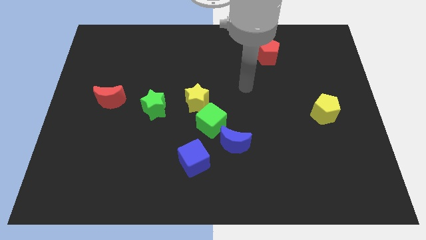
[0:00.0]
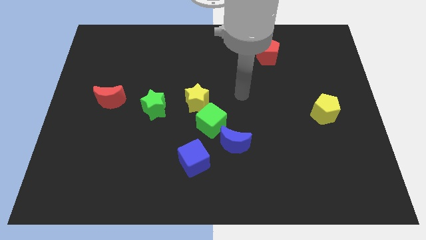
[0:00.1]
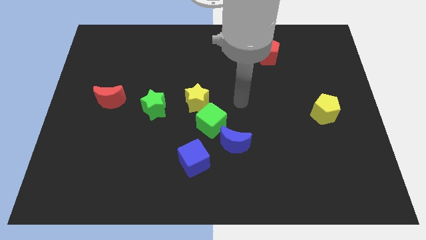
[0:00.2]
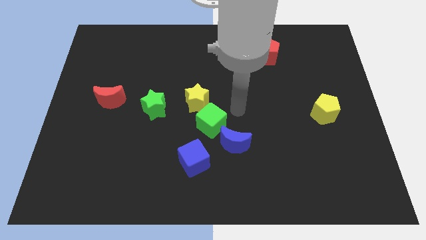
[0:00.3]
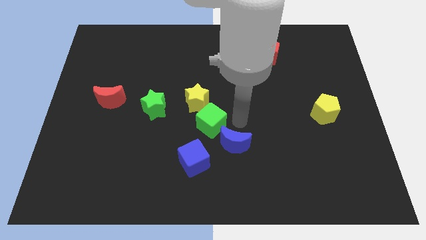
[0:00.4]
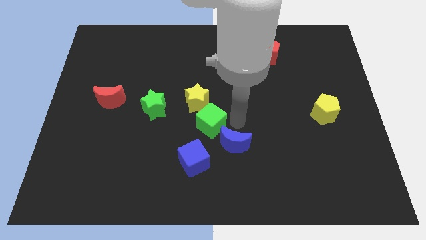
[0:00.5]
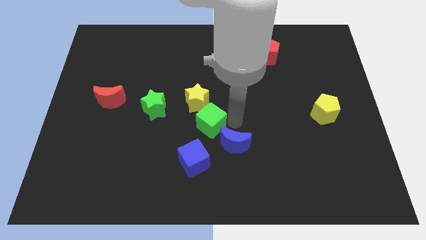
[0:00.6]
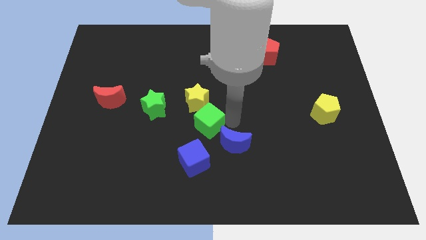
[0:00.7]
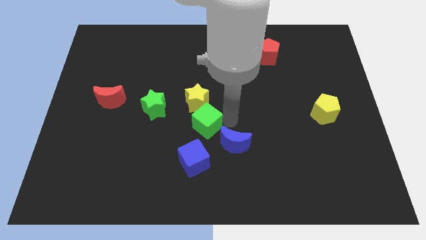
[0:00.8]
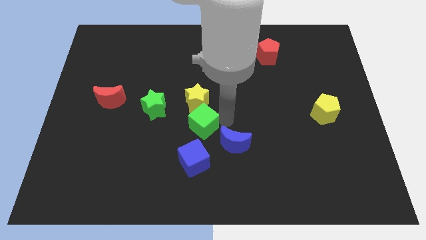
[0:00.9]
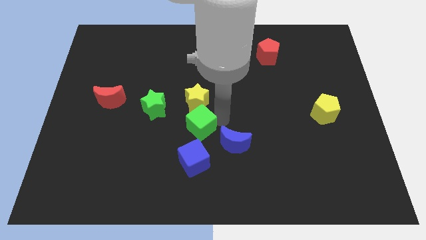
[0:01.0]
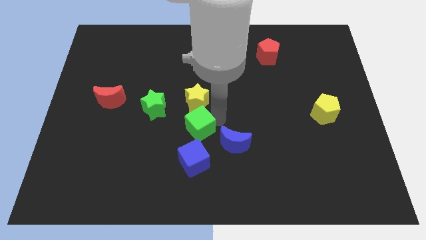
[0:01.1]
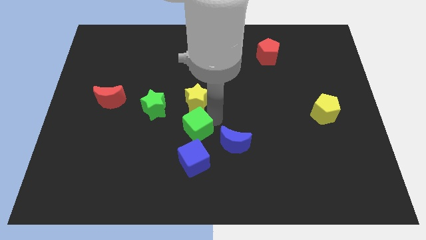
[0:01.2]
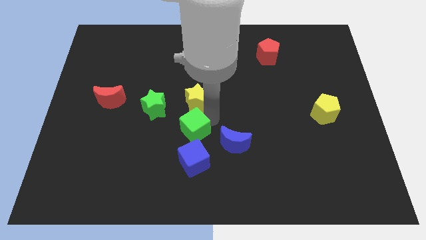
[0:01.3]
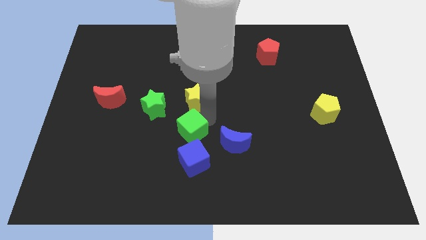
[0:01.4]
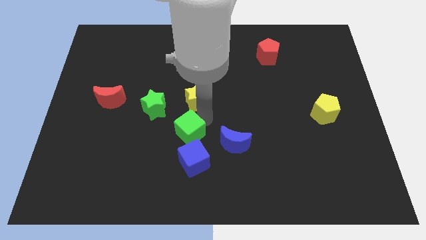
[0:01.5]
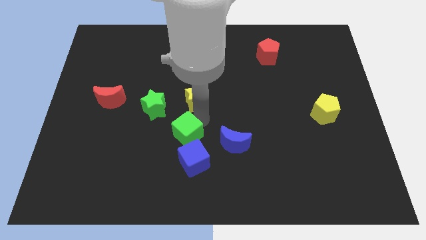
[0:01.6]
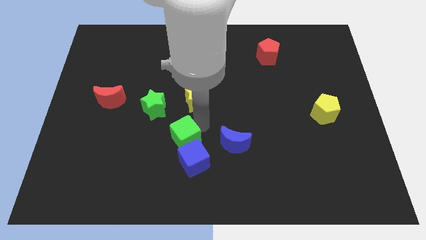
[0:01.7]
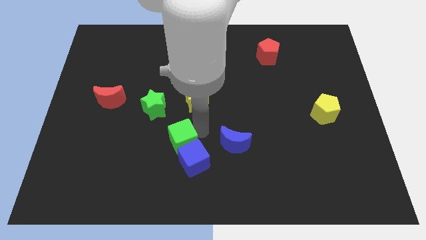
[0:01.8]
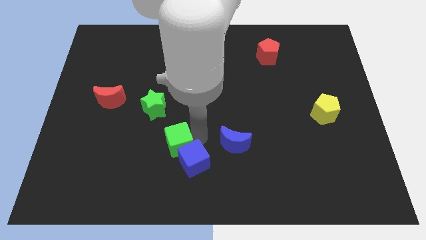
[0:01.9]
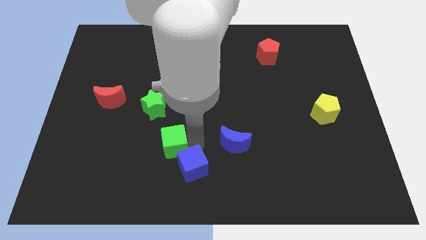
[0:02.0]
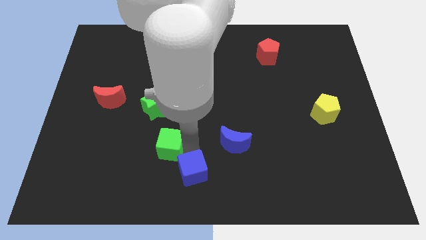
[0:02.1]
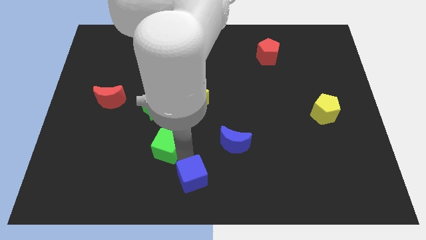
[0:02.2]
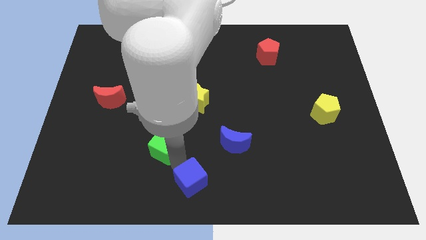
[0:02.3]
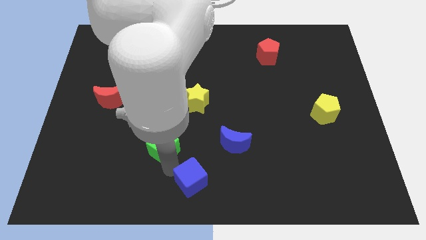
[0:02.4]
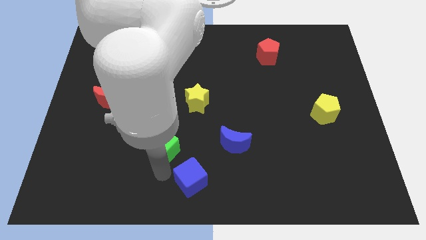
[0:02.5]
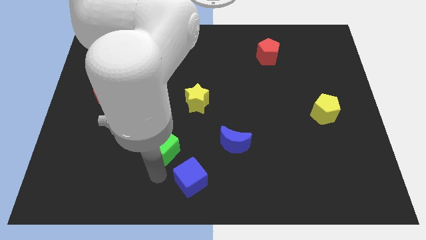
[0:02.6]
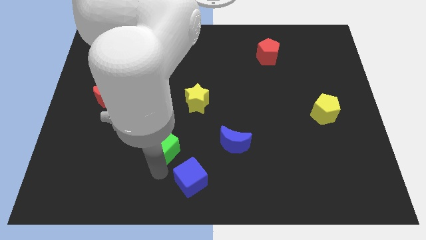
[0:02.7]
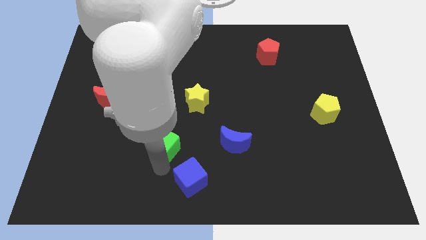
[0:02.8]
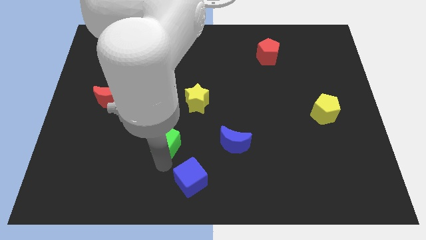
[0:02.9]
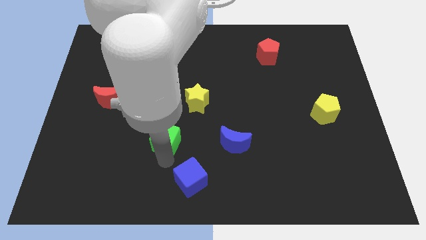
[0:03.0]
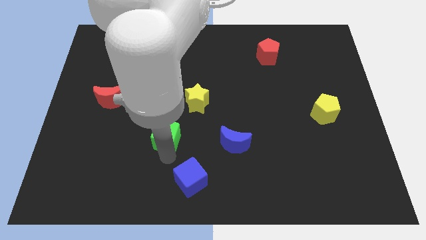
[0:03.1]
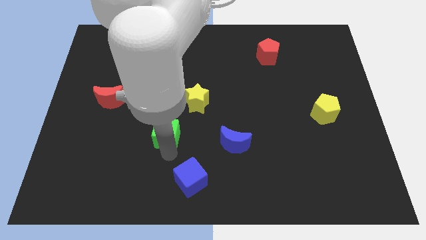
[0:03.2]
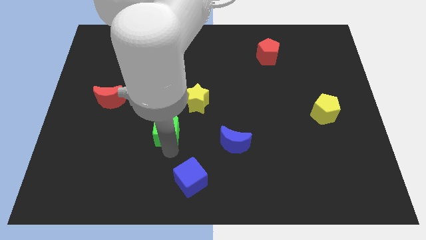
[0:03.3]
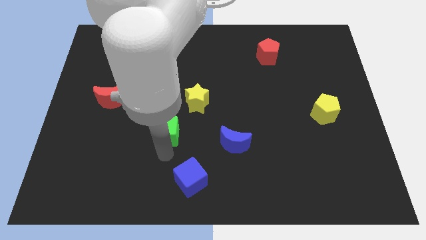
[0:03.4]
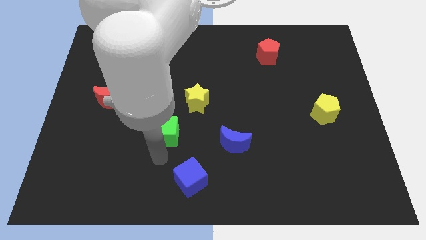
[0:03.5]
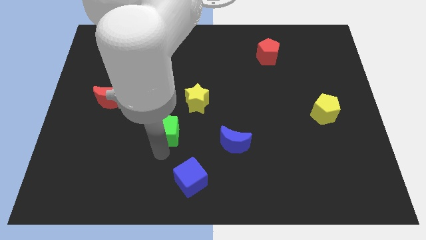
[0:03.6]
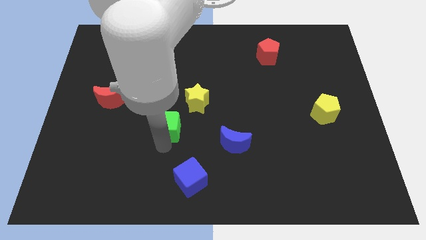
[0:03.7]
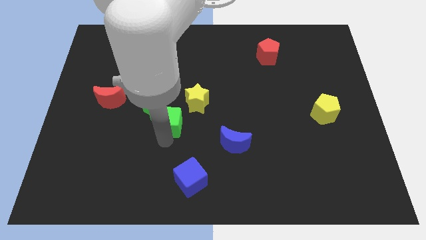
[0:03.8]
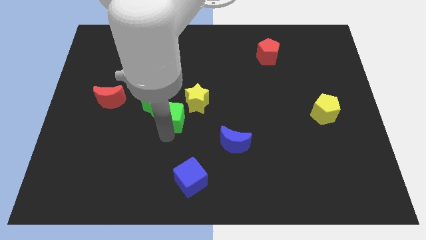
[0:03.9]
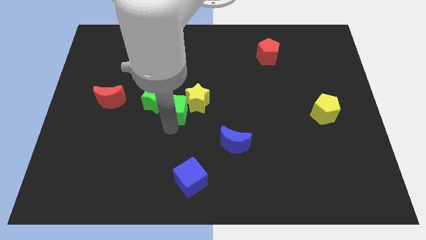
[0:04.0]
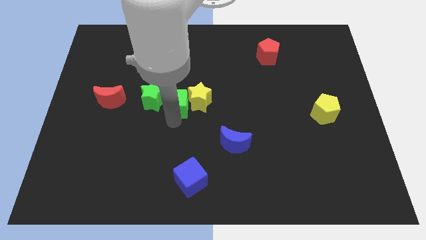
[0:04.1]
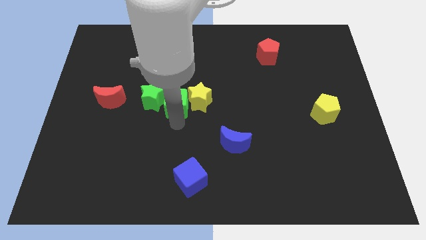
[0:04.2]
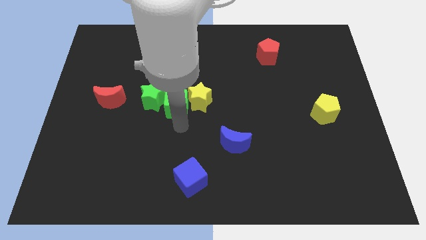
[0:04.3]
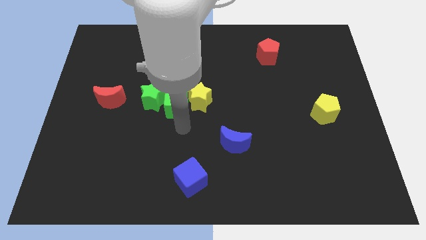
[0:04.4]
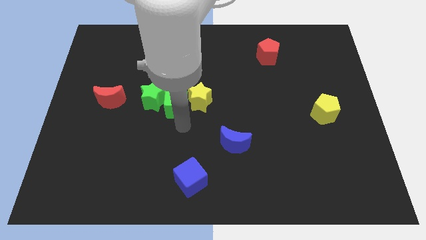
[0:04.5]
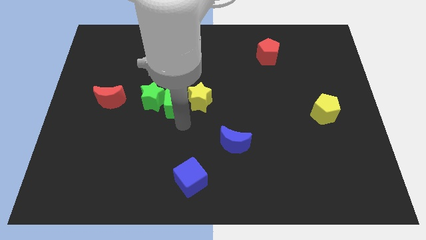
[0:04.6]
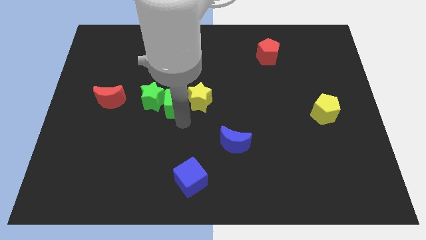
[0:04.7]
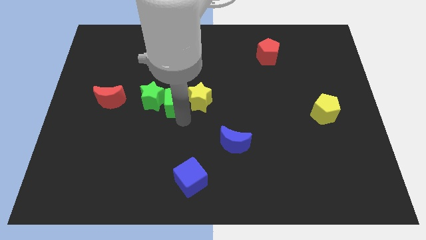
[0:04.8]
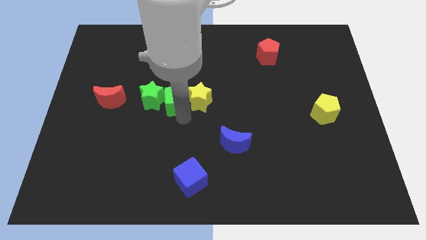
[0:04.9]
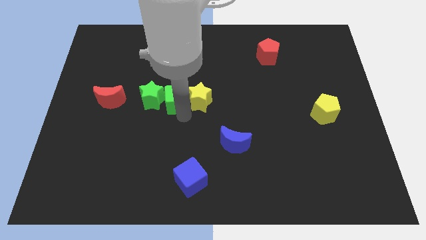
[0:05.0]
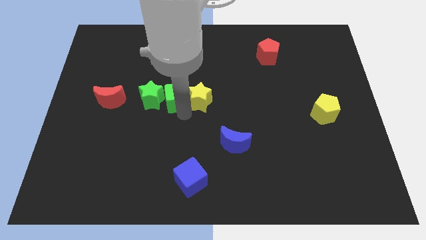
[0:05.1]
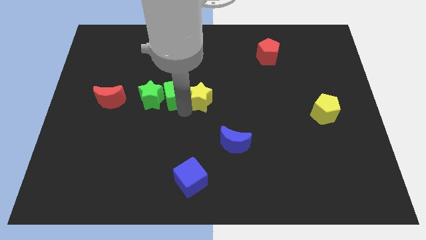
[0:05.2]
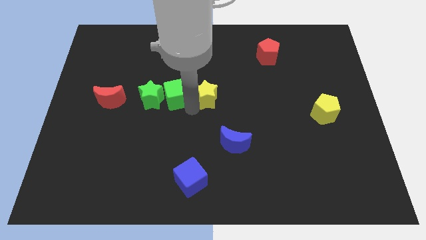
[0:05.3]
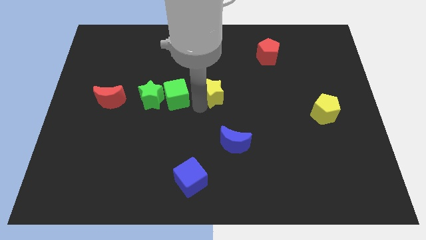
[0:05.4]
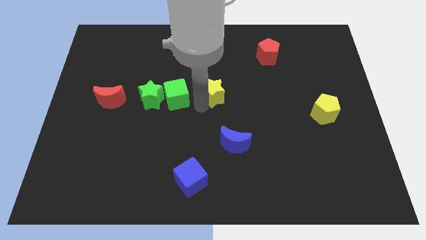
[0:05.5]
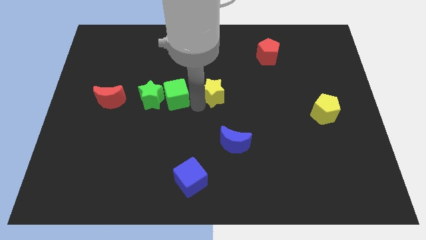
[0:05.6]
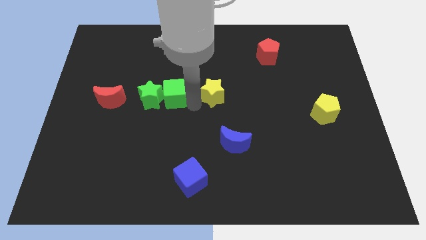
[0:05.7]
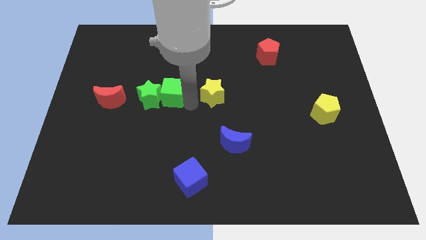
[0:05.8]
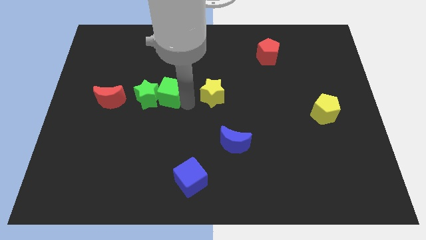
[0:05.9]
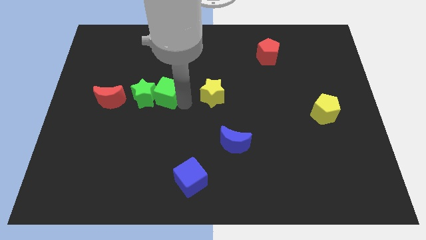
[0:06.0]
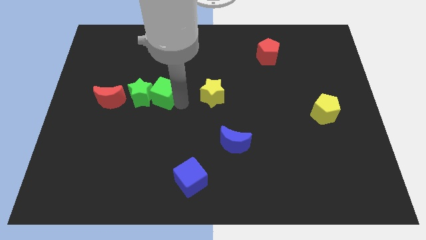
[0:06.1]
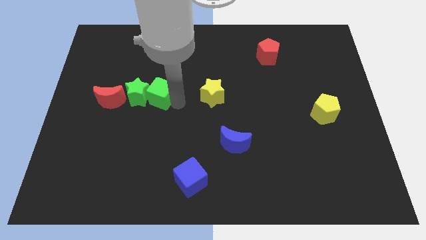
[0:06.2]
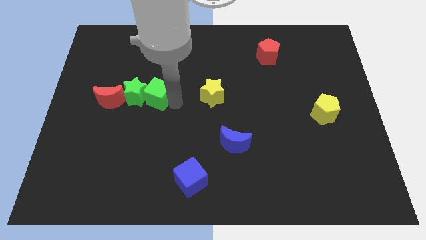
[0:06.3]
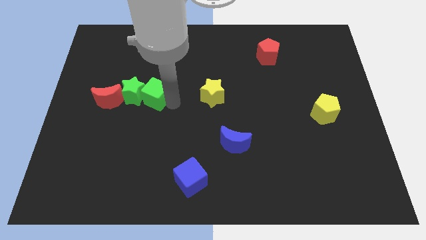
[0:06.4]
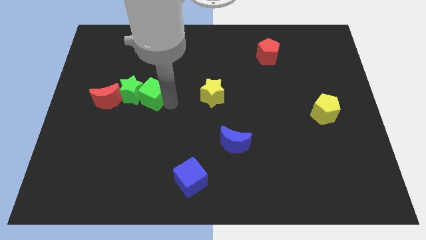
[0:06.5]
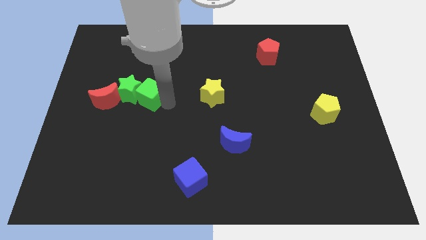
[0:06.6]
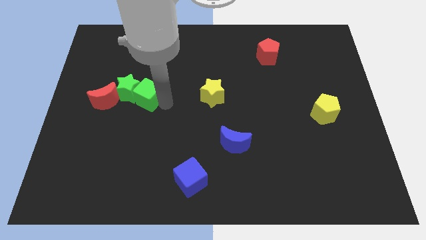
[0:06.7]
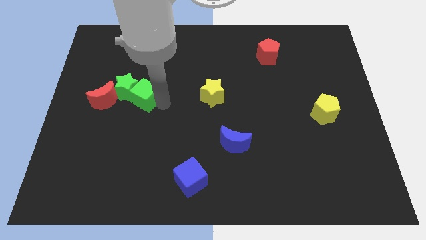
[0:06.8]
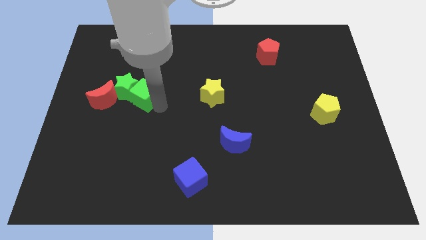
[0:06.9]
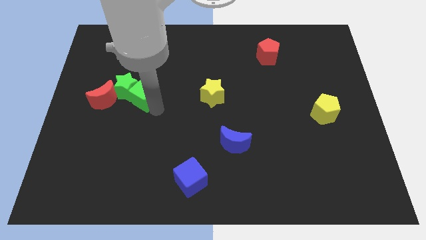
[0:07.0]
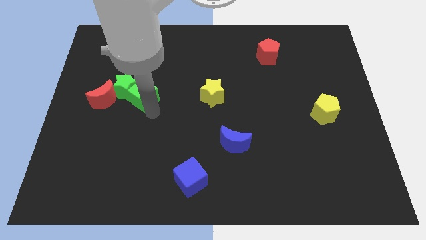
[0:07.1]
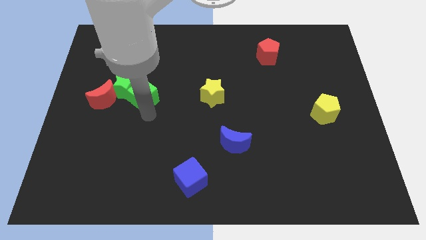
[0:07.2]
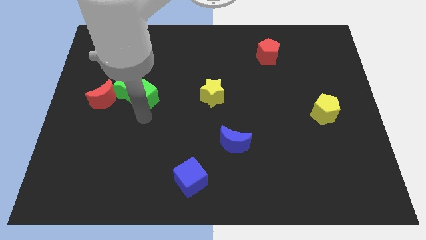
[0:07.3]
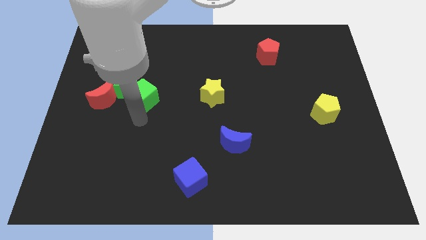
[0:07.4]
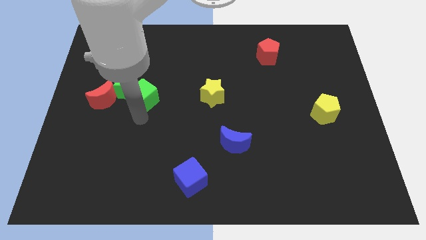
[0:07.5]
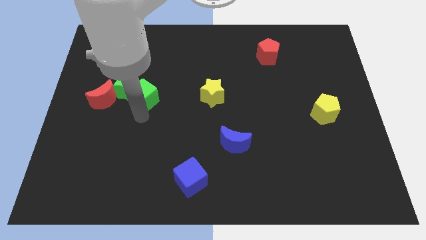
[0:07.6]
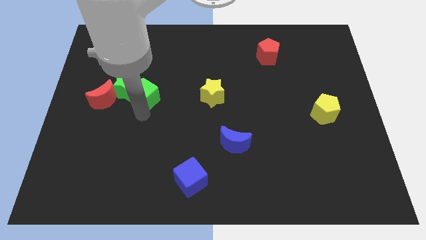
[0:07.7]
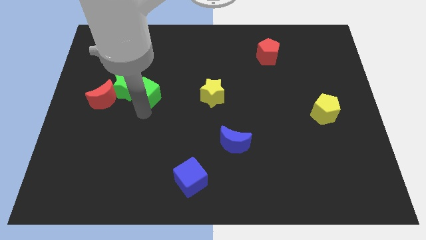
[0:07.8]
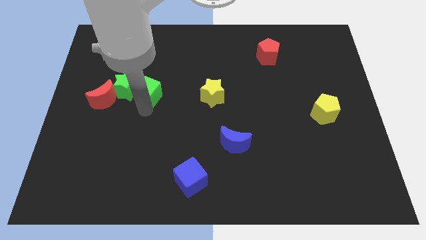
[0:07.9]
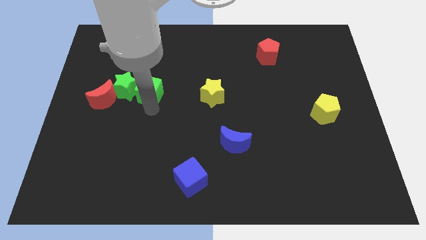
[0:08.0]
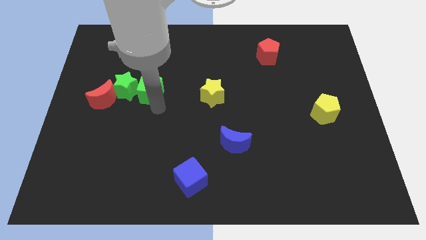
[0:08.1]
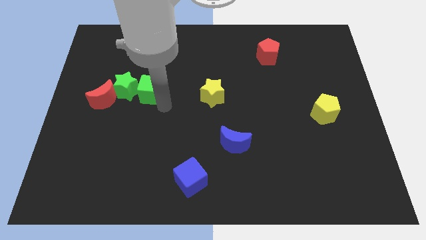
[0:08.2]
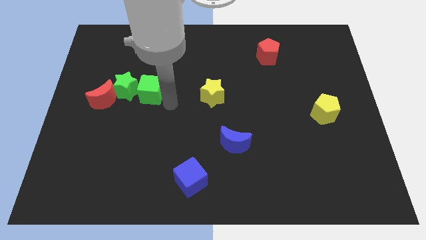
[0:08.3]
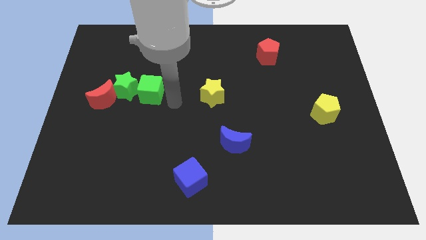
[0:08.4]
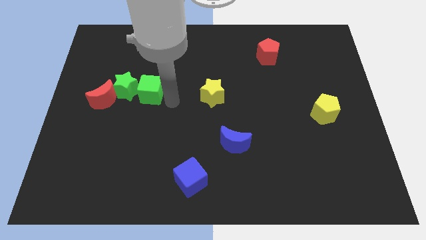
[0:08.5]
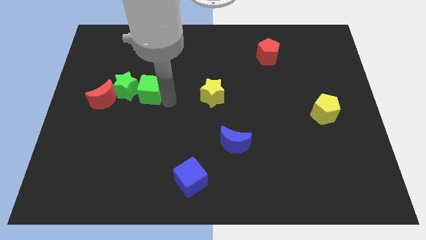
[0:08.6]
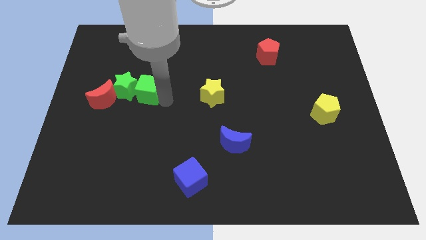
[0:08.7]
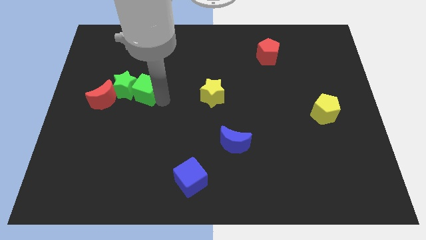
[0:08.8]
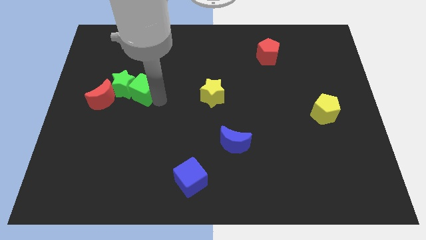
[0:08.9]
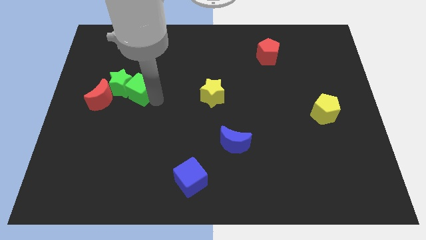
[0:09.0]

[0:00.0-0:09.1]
slide the green cube to the top right side of the red moon
